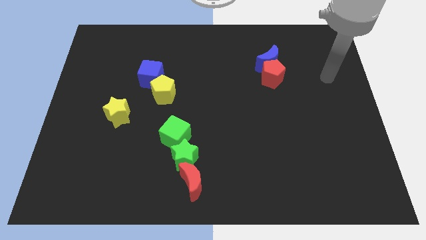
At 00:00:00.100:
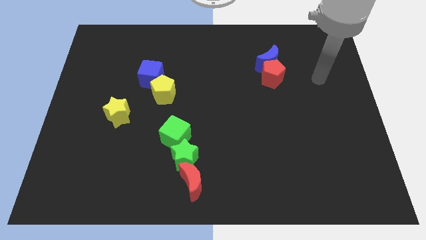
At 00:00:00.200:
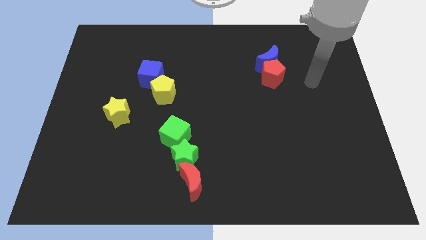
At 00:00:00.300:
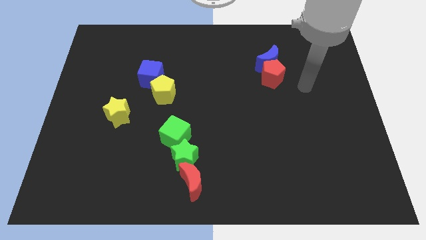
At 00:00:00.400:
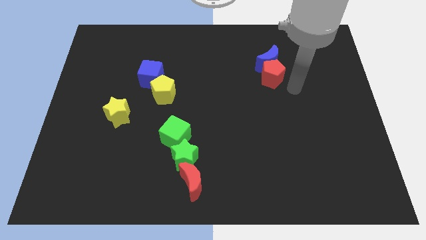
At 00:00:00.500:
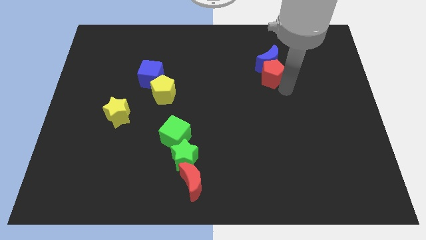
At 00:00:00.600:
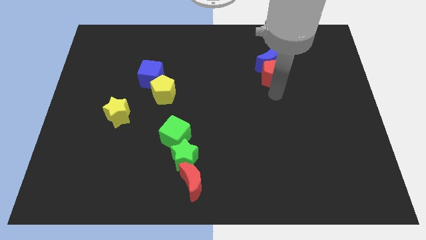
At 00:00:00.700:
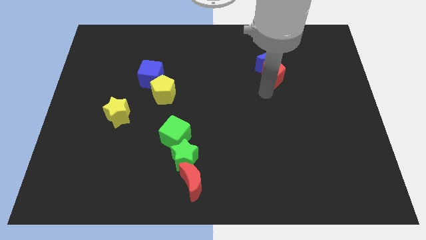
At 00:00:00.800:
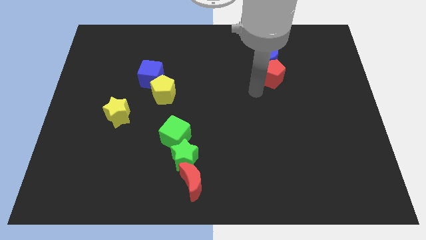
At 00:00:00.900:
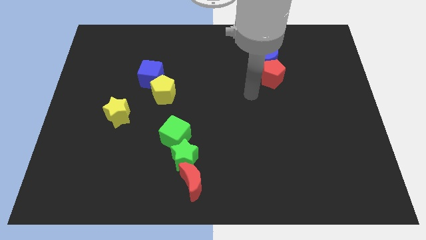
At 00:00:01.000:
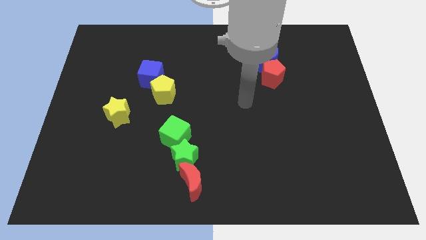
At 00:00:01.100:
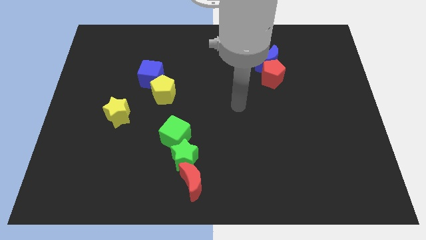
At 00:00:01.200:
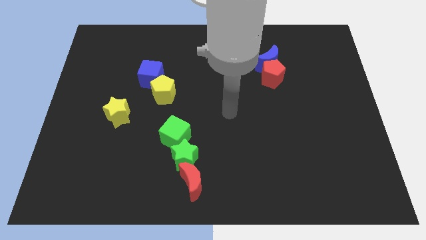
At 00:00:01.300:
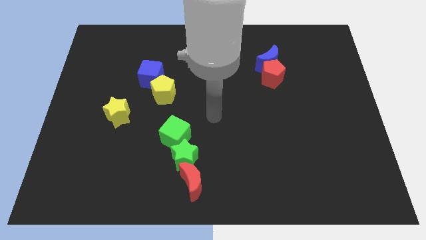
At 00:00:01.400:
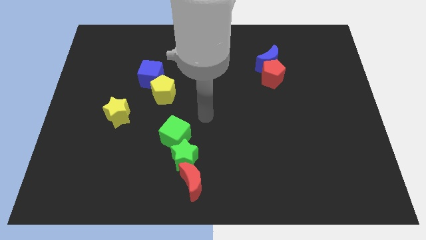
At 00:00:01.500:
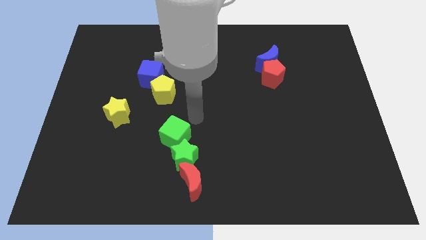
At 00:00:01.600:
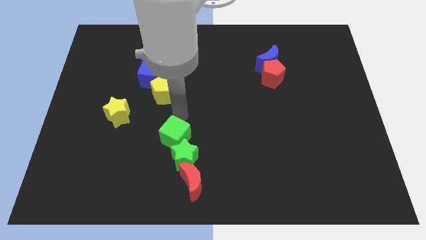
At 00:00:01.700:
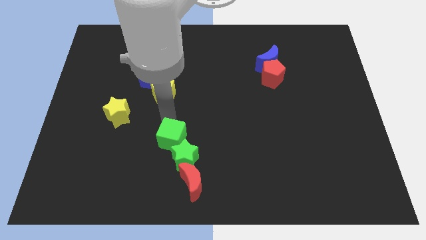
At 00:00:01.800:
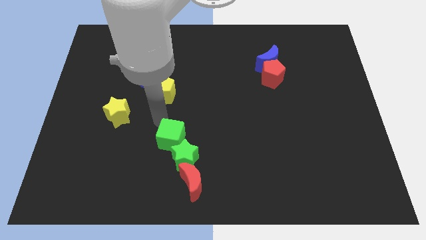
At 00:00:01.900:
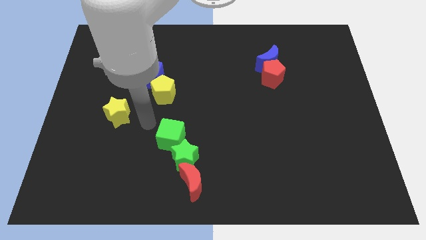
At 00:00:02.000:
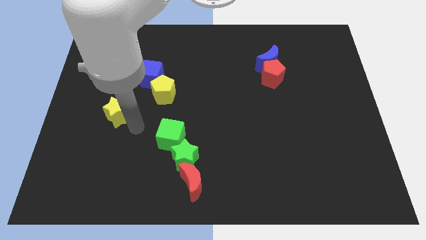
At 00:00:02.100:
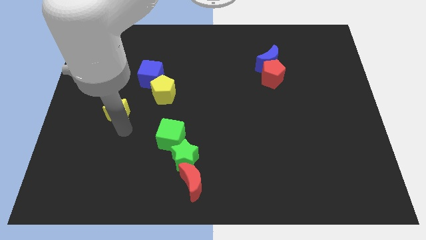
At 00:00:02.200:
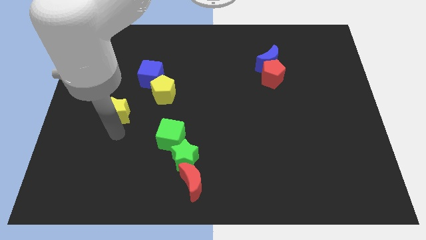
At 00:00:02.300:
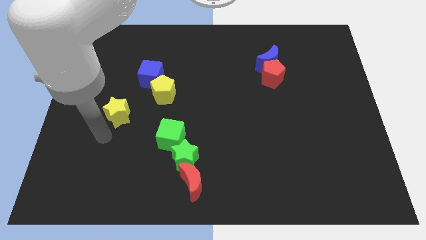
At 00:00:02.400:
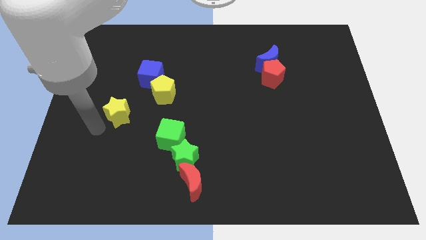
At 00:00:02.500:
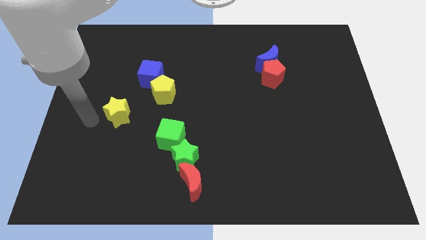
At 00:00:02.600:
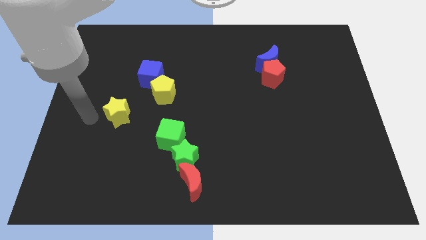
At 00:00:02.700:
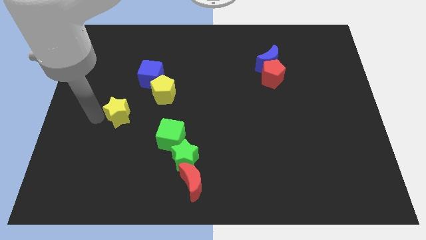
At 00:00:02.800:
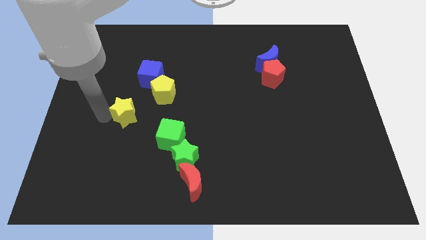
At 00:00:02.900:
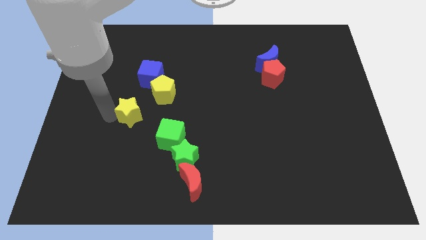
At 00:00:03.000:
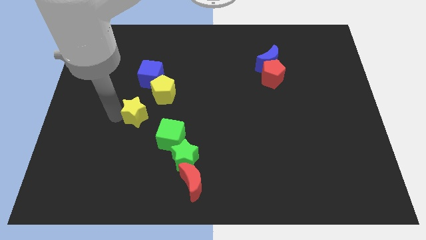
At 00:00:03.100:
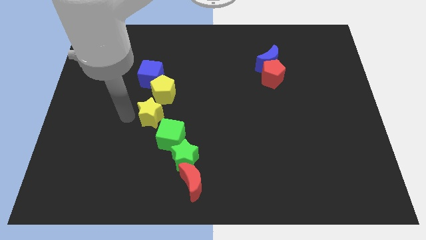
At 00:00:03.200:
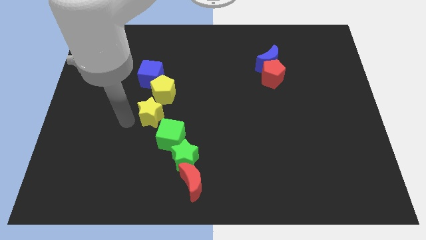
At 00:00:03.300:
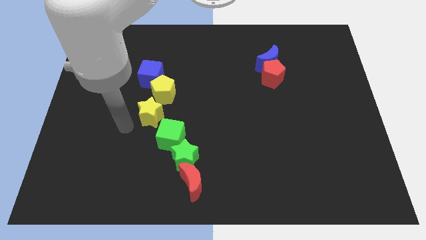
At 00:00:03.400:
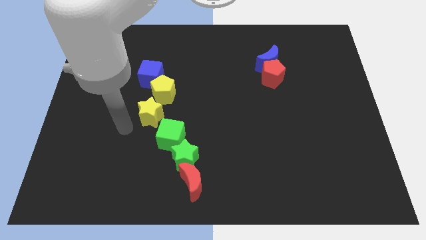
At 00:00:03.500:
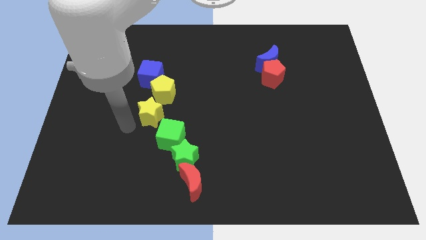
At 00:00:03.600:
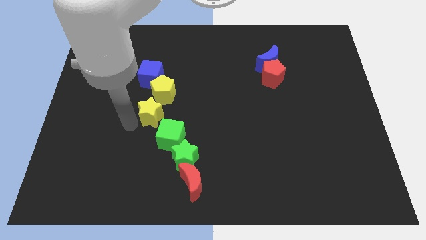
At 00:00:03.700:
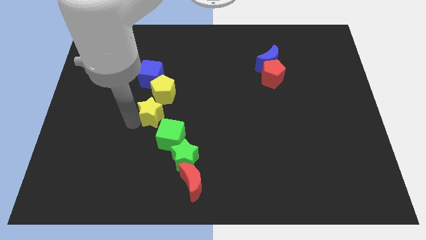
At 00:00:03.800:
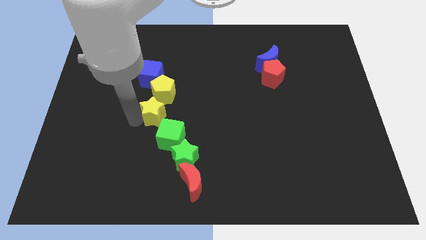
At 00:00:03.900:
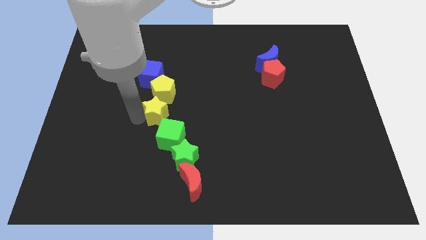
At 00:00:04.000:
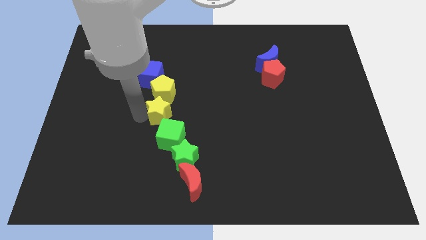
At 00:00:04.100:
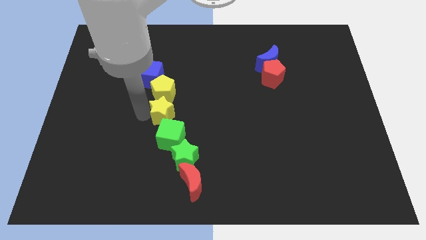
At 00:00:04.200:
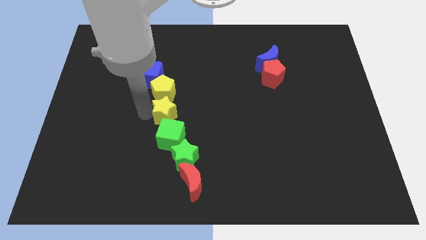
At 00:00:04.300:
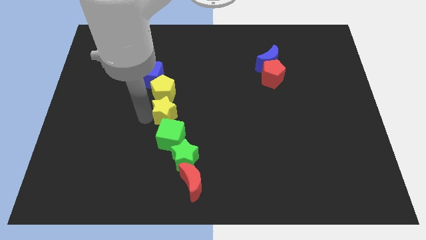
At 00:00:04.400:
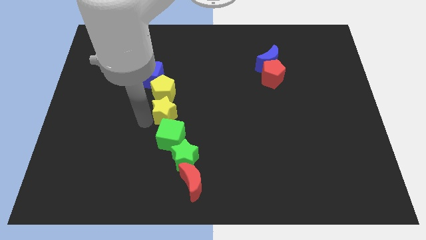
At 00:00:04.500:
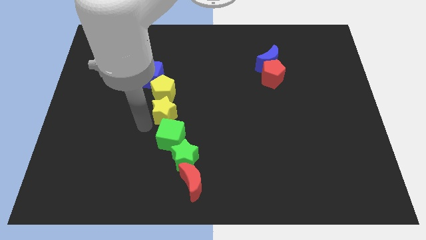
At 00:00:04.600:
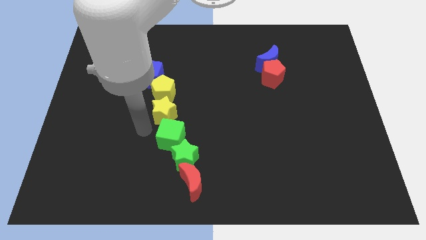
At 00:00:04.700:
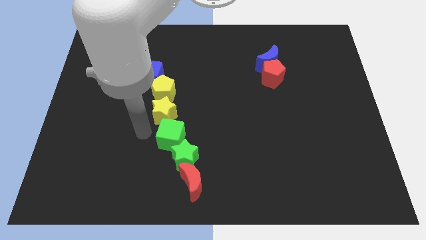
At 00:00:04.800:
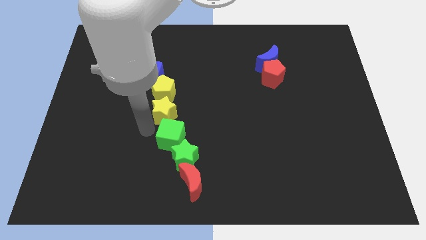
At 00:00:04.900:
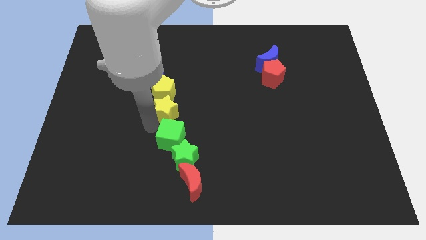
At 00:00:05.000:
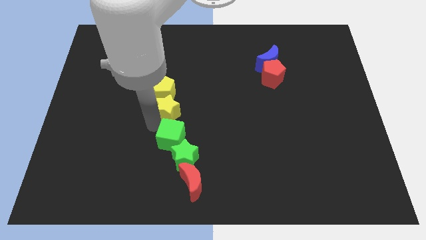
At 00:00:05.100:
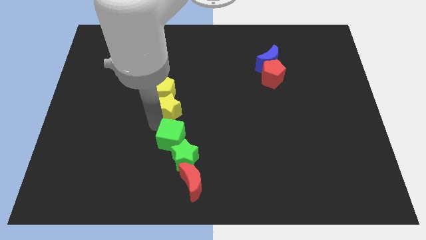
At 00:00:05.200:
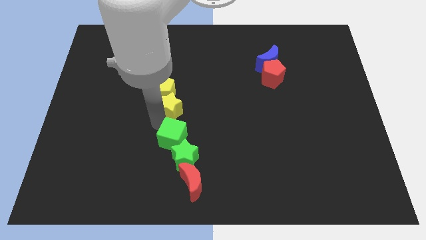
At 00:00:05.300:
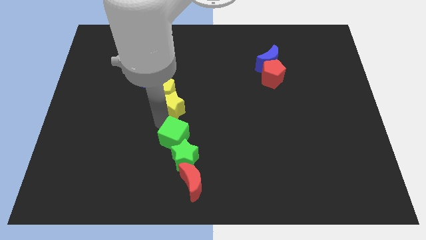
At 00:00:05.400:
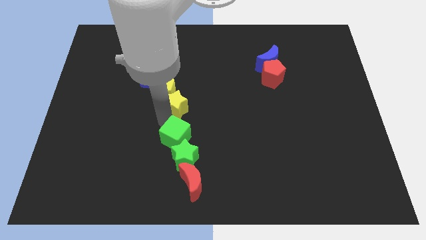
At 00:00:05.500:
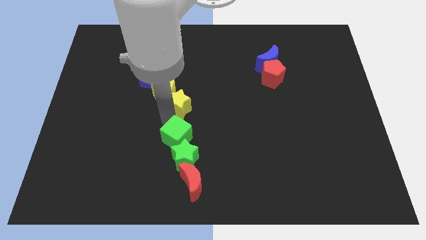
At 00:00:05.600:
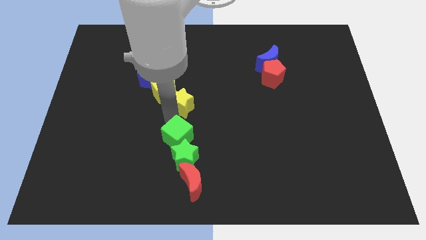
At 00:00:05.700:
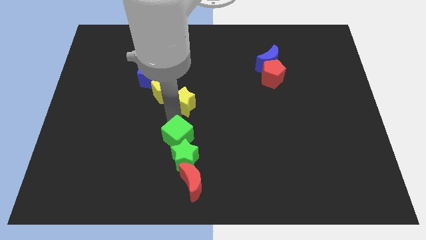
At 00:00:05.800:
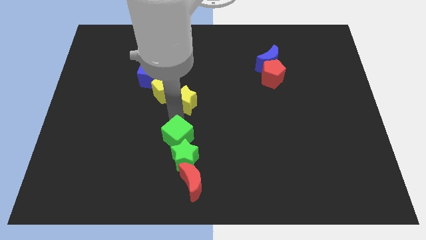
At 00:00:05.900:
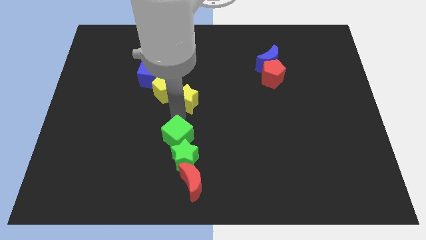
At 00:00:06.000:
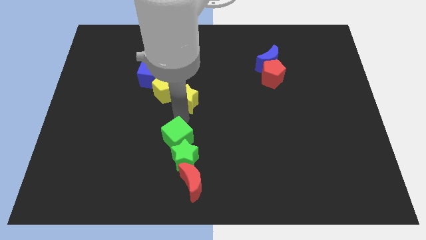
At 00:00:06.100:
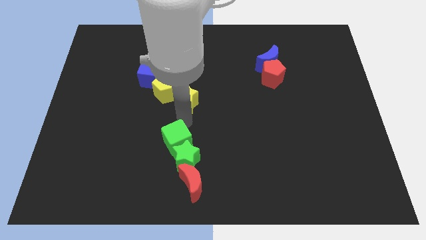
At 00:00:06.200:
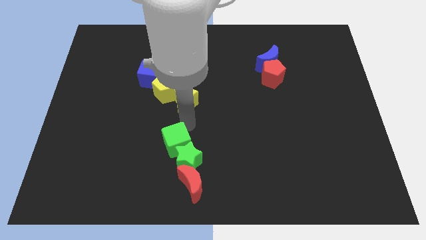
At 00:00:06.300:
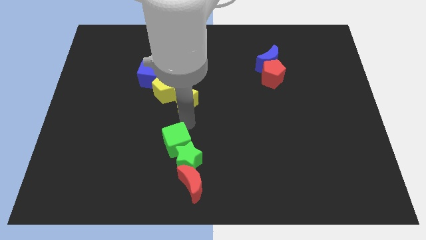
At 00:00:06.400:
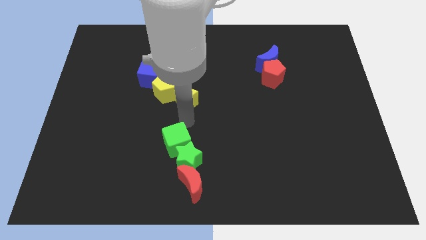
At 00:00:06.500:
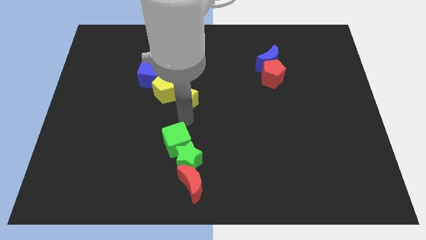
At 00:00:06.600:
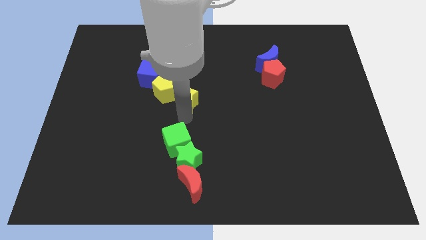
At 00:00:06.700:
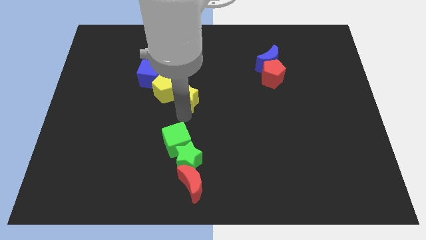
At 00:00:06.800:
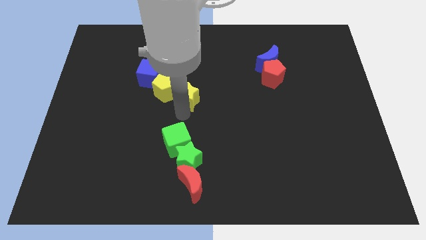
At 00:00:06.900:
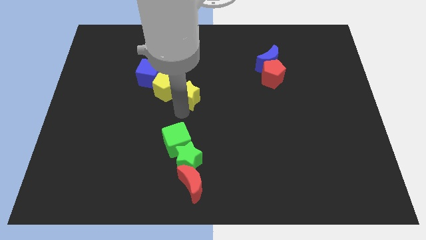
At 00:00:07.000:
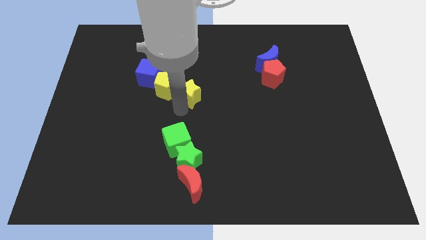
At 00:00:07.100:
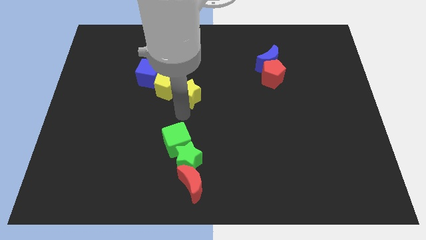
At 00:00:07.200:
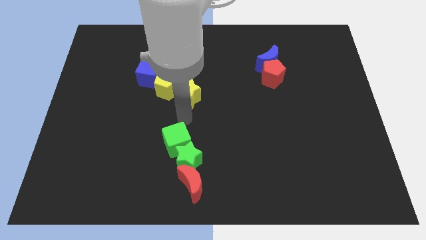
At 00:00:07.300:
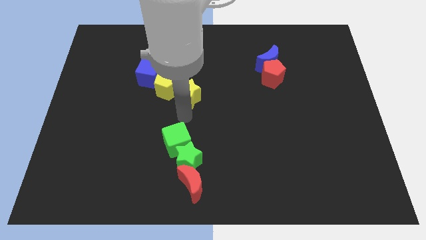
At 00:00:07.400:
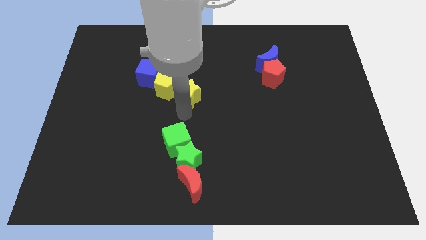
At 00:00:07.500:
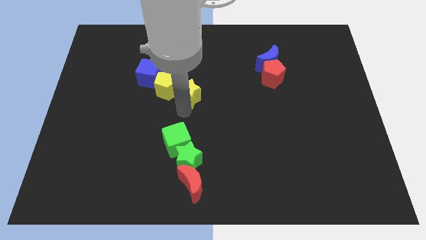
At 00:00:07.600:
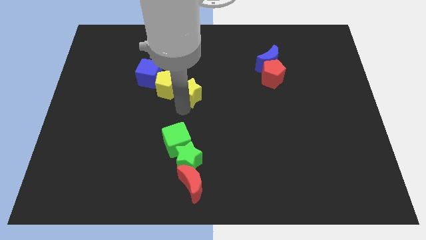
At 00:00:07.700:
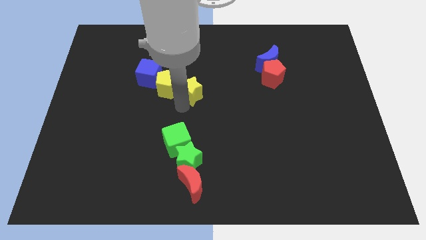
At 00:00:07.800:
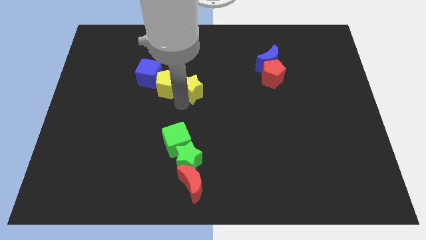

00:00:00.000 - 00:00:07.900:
slide the yellow star to the right of the blue cube
